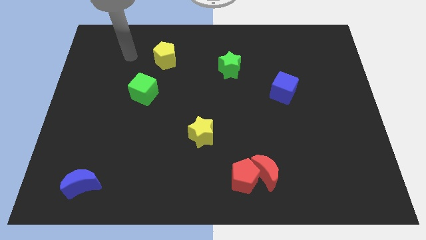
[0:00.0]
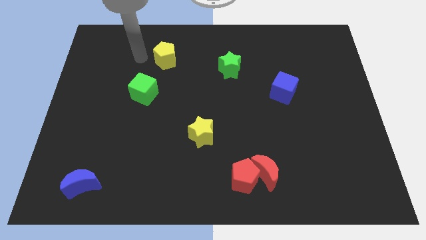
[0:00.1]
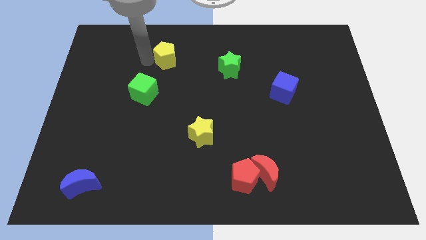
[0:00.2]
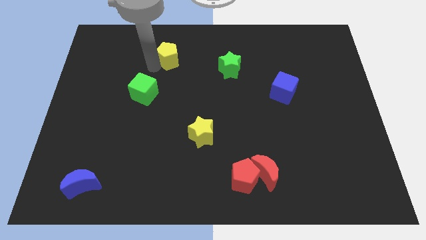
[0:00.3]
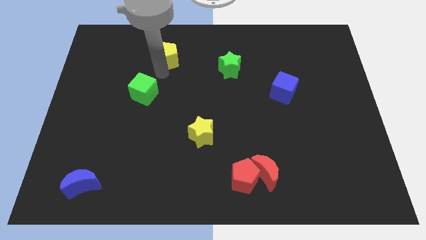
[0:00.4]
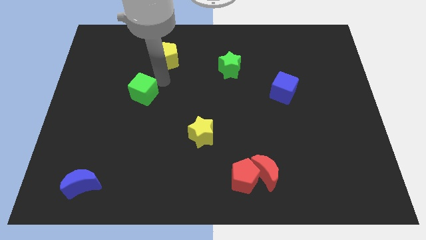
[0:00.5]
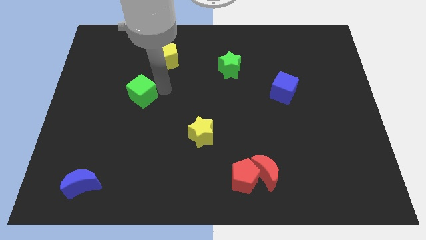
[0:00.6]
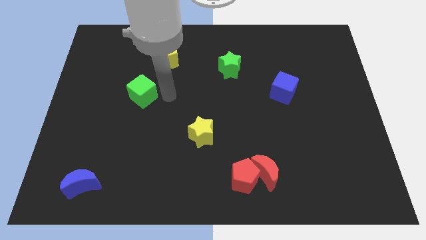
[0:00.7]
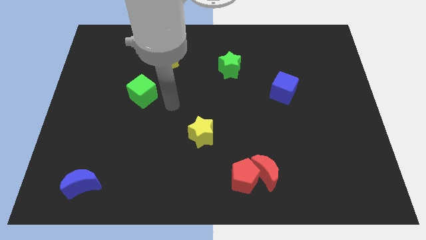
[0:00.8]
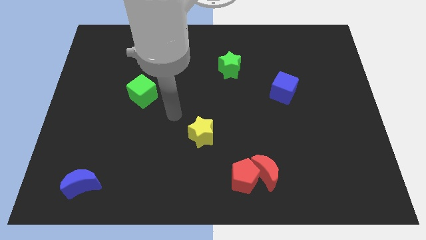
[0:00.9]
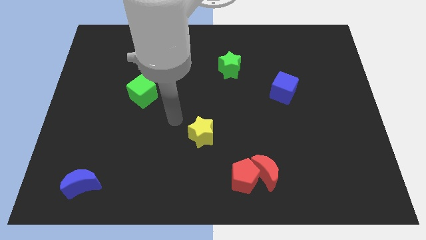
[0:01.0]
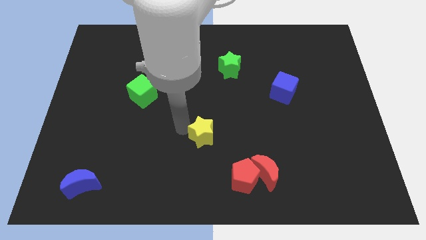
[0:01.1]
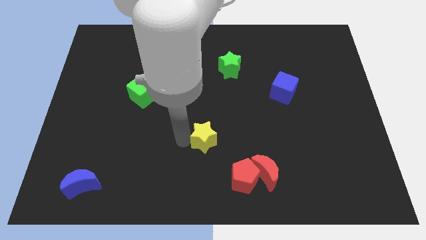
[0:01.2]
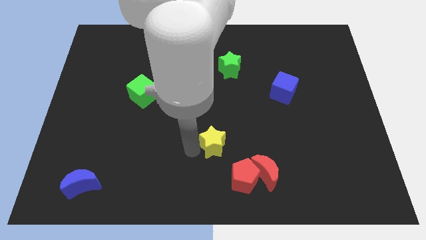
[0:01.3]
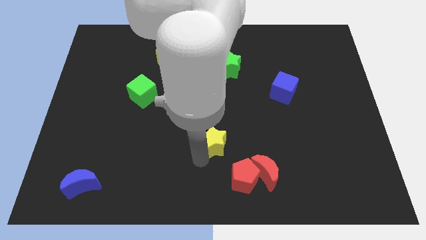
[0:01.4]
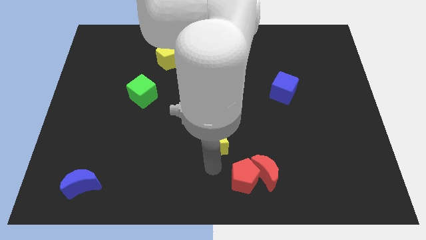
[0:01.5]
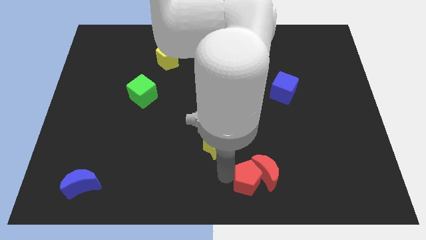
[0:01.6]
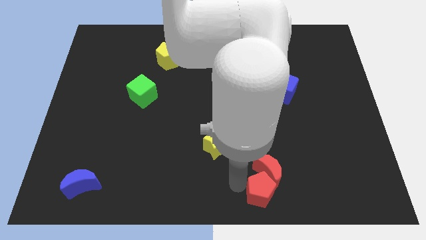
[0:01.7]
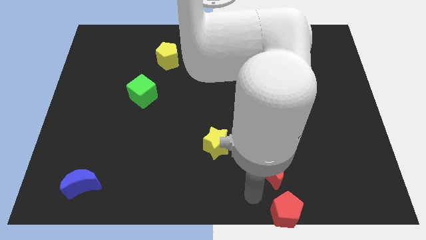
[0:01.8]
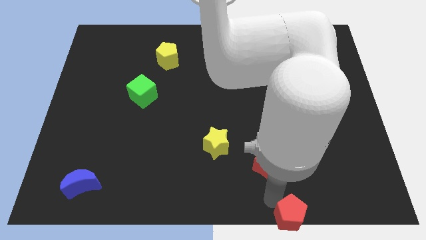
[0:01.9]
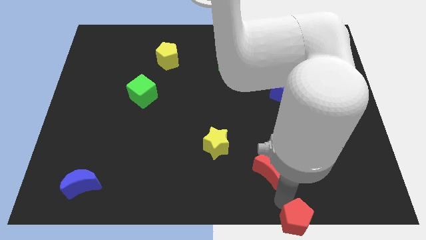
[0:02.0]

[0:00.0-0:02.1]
pull the red moon apart from the red pentagon

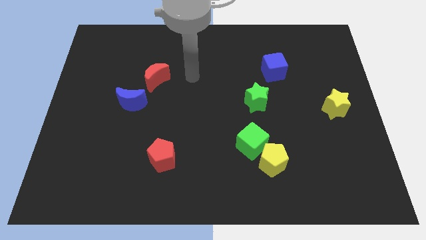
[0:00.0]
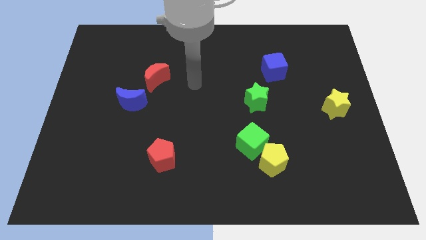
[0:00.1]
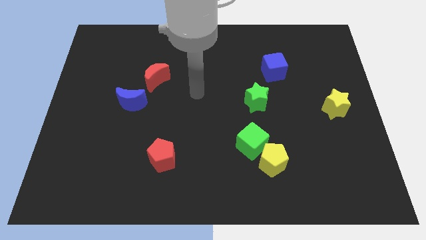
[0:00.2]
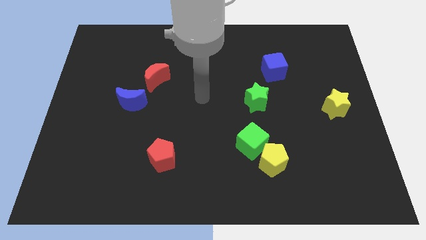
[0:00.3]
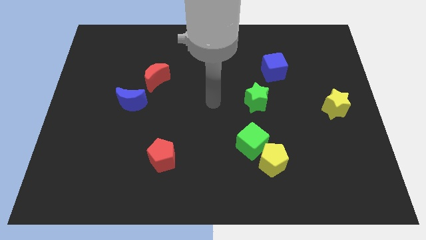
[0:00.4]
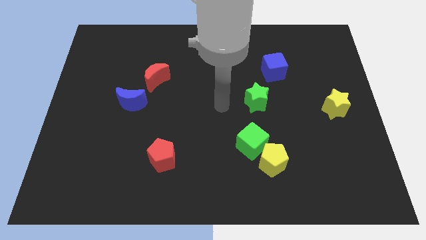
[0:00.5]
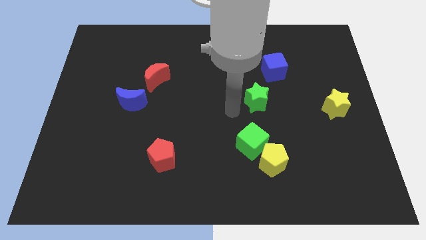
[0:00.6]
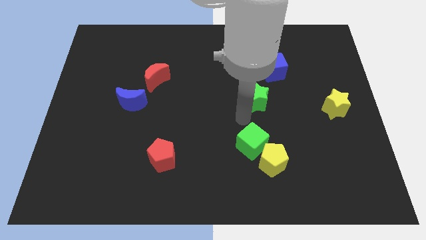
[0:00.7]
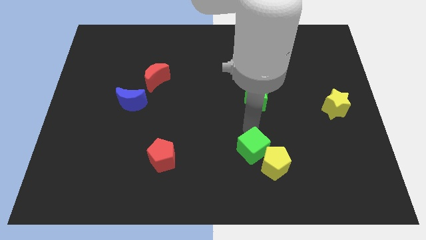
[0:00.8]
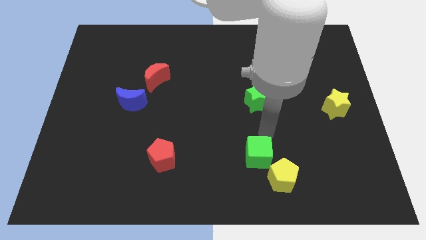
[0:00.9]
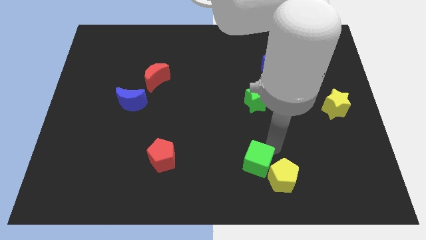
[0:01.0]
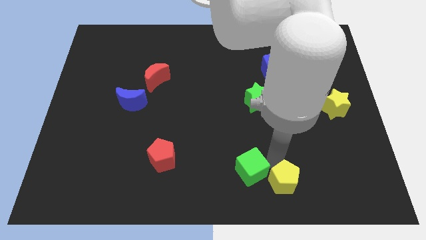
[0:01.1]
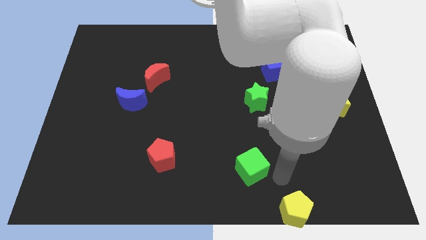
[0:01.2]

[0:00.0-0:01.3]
move the green cube away from the yellow pentagon

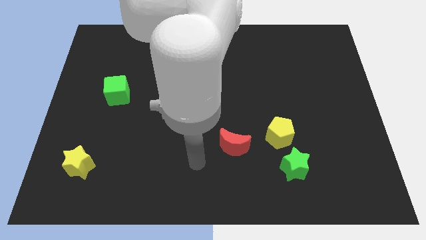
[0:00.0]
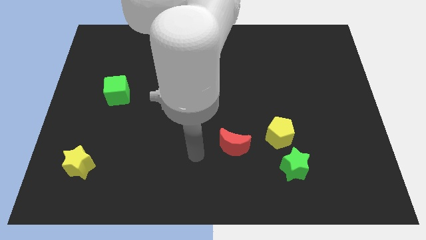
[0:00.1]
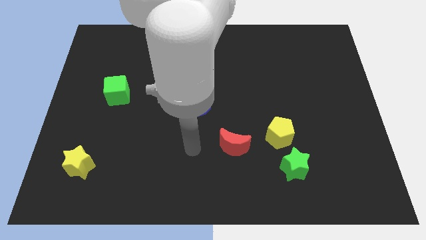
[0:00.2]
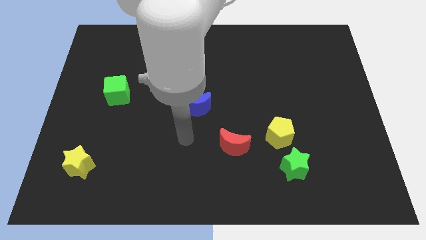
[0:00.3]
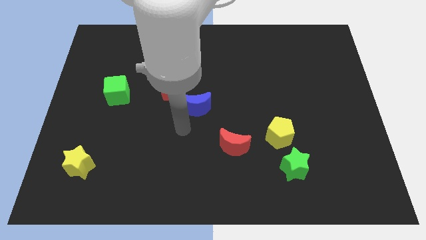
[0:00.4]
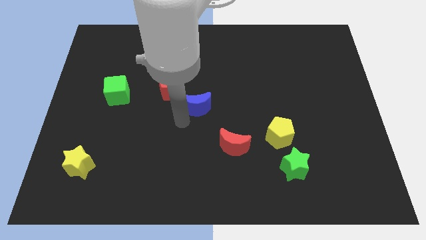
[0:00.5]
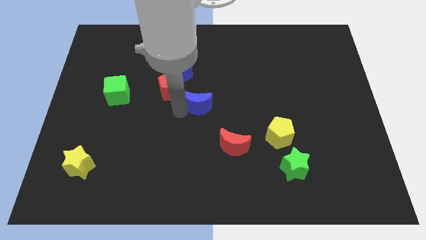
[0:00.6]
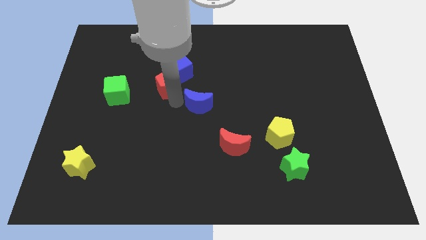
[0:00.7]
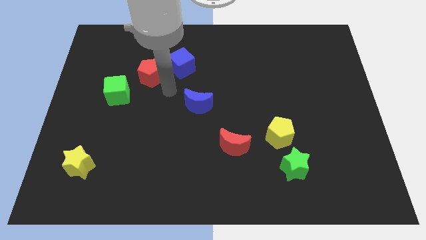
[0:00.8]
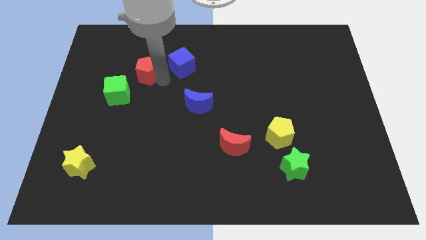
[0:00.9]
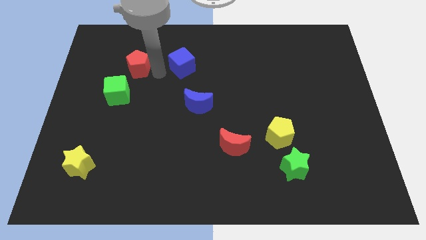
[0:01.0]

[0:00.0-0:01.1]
move the blue cube away from the red pentagon

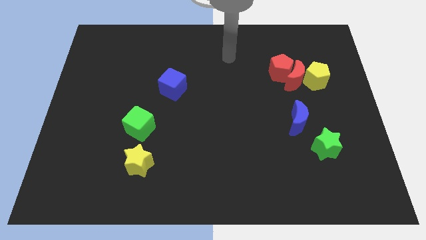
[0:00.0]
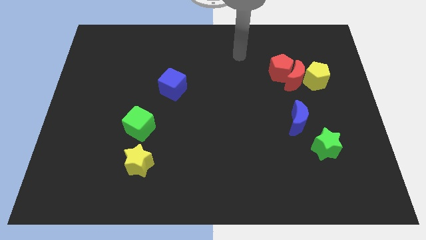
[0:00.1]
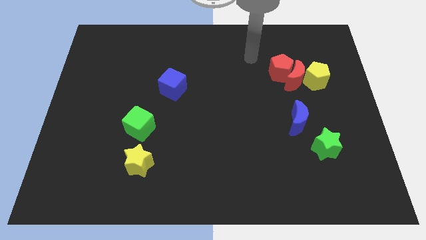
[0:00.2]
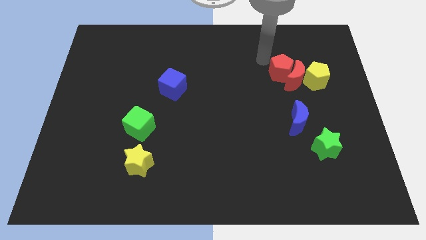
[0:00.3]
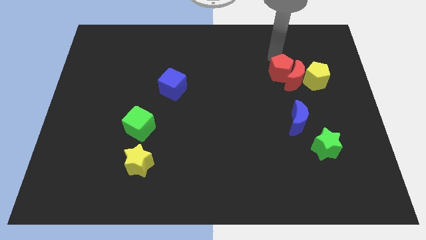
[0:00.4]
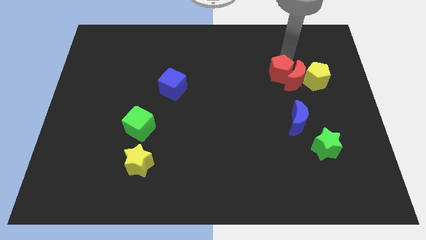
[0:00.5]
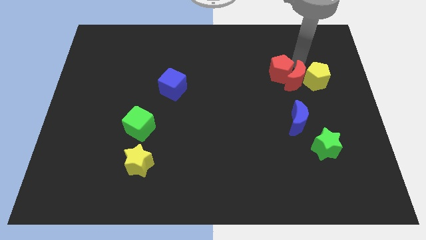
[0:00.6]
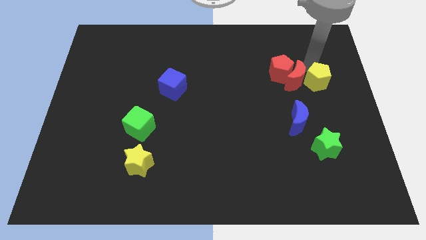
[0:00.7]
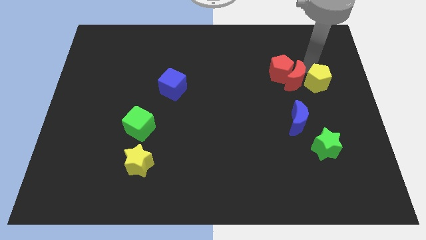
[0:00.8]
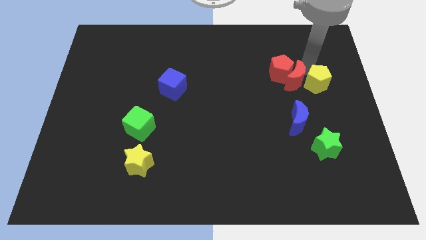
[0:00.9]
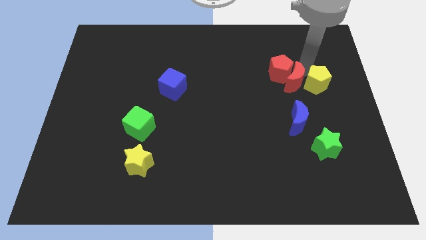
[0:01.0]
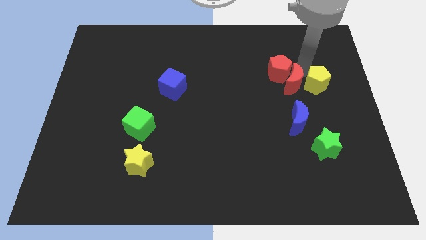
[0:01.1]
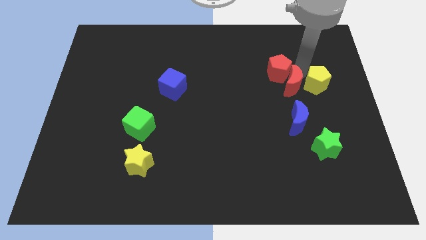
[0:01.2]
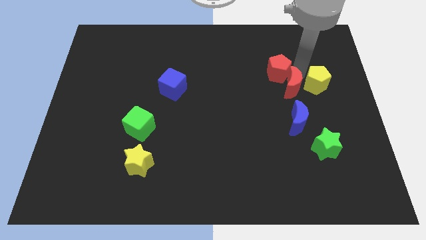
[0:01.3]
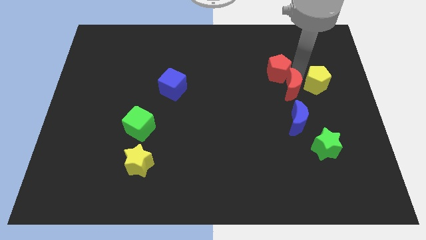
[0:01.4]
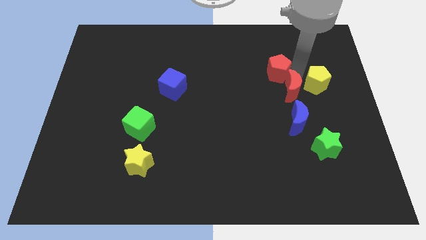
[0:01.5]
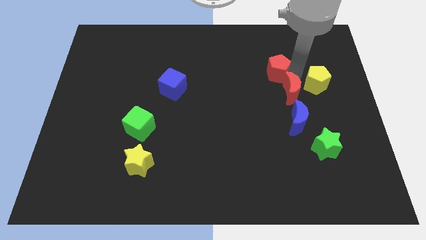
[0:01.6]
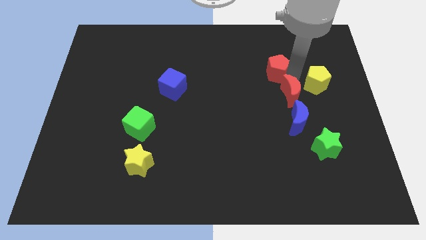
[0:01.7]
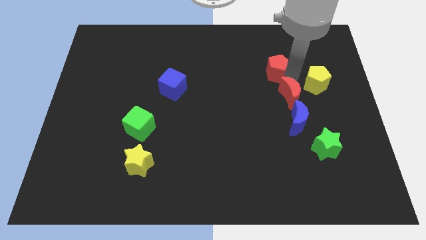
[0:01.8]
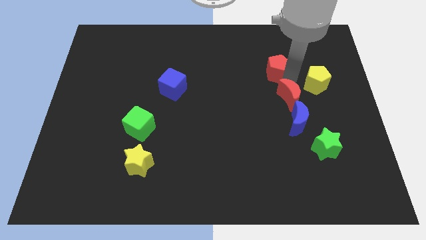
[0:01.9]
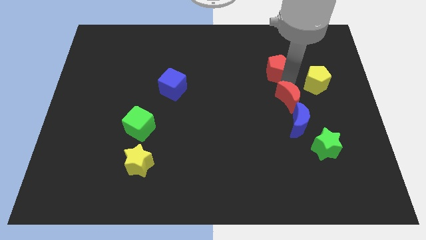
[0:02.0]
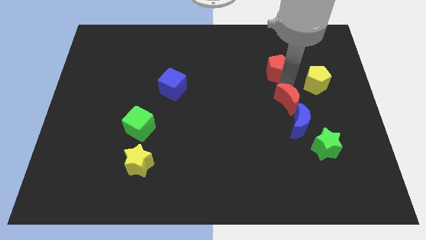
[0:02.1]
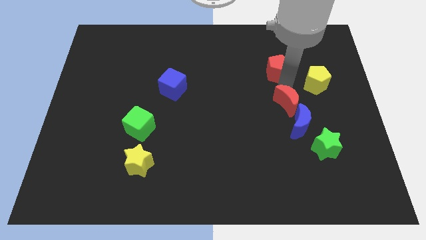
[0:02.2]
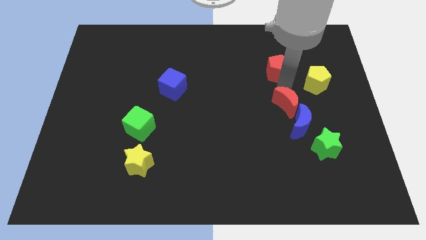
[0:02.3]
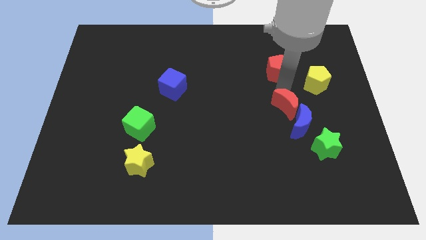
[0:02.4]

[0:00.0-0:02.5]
move the red moon away from the red pentagon and yellow pentagon

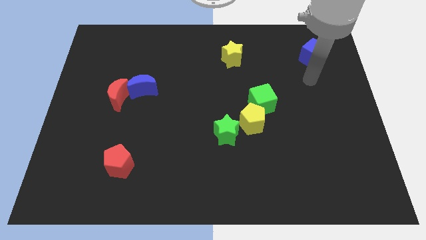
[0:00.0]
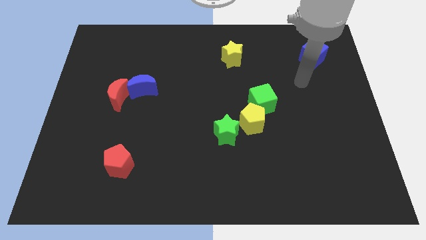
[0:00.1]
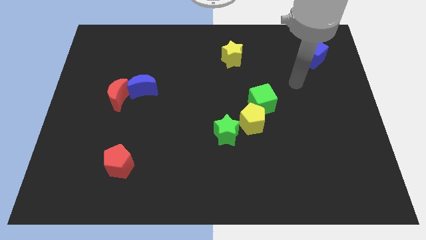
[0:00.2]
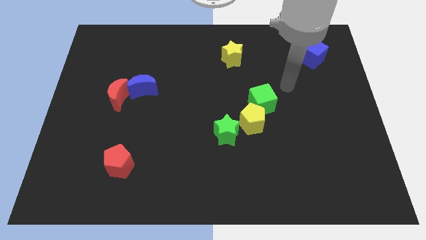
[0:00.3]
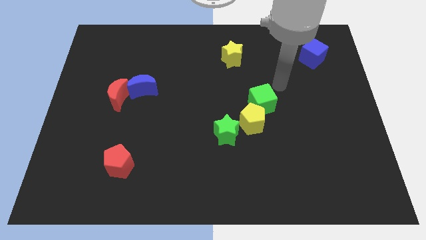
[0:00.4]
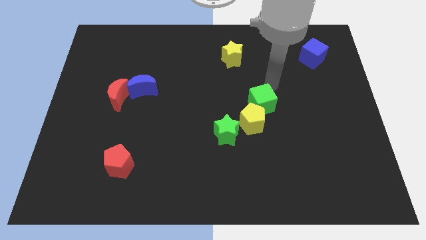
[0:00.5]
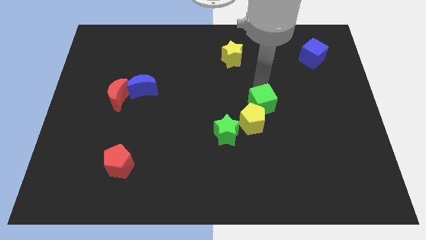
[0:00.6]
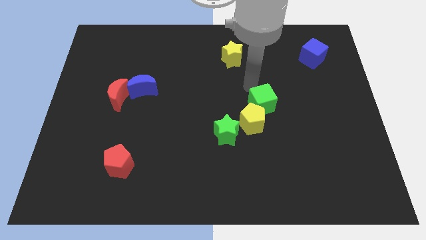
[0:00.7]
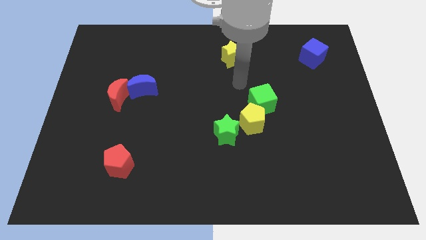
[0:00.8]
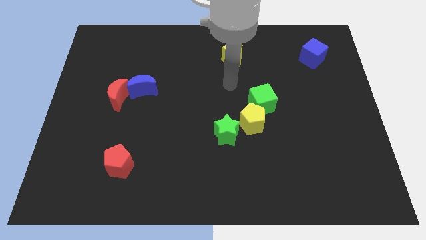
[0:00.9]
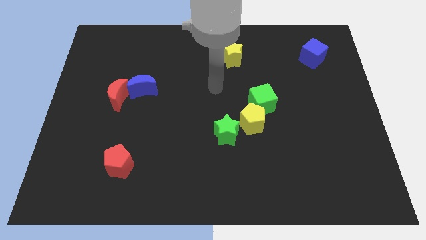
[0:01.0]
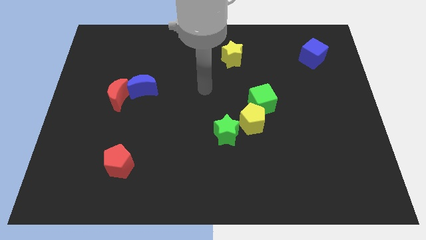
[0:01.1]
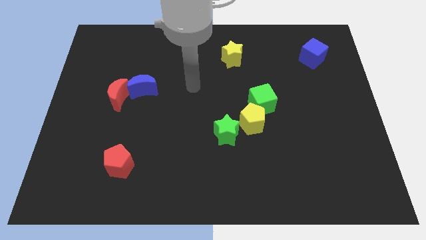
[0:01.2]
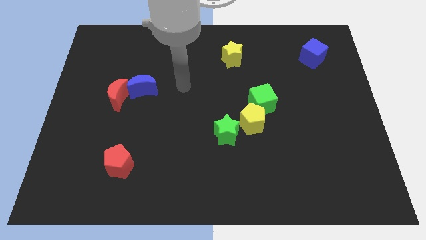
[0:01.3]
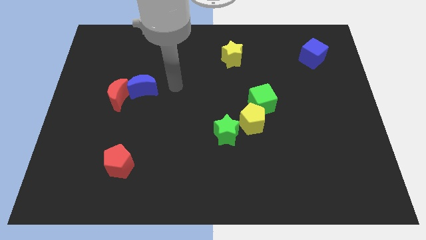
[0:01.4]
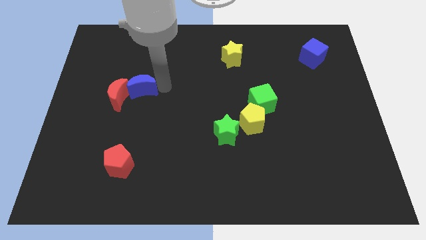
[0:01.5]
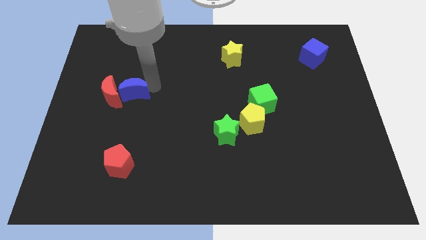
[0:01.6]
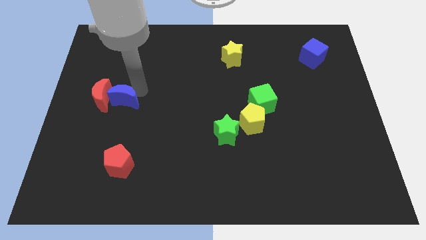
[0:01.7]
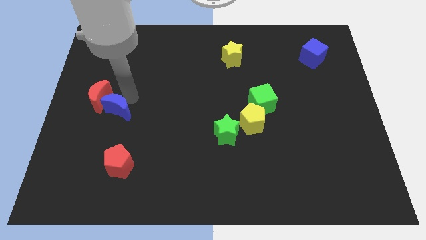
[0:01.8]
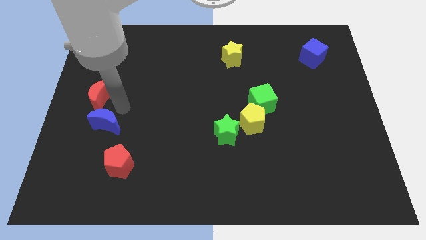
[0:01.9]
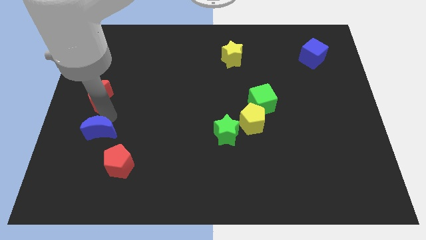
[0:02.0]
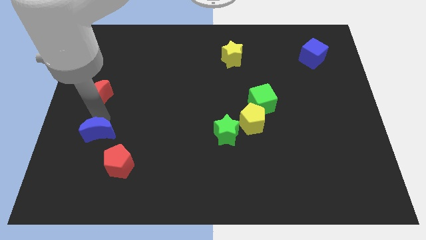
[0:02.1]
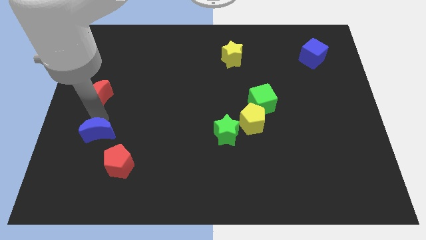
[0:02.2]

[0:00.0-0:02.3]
pull the red moon apart from the blue moon
